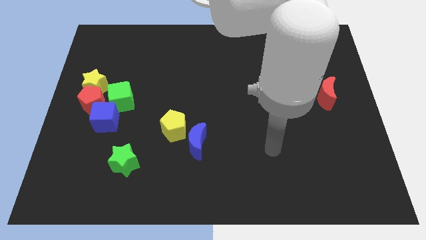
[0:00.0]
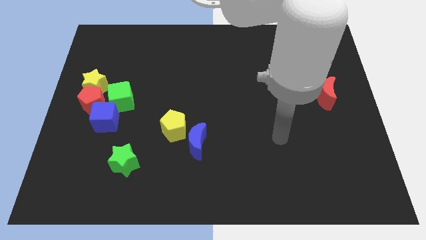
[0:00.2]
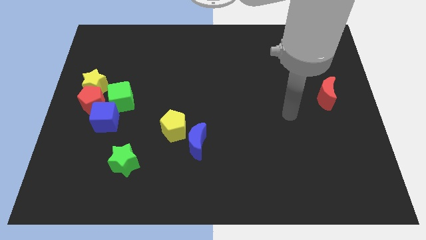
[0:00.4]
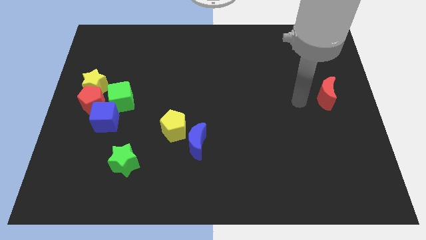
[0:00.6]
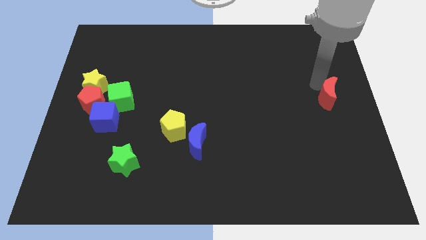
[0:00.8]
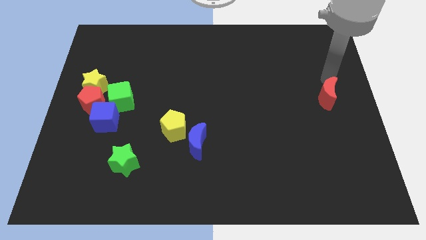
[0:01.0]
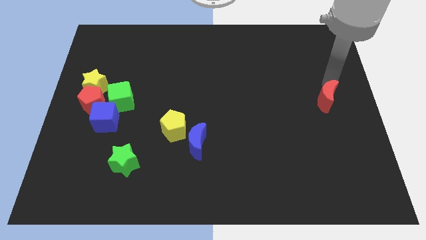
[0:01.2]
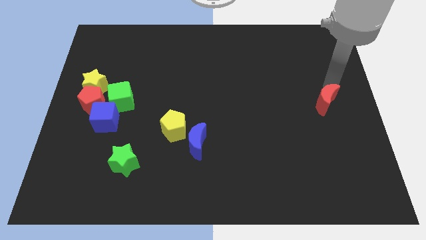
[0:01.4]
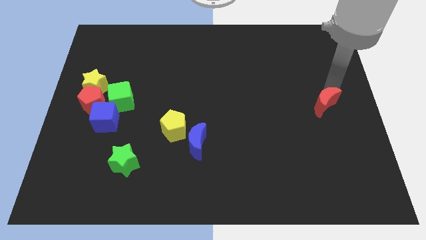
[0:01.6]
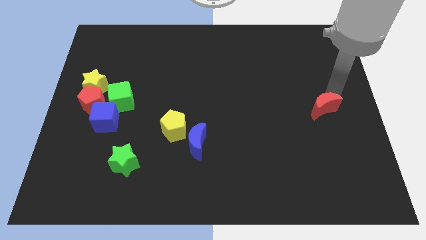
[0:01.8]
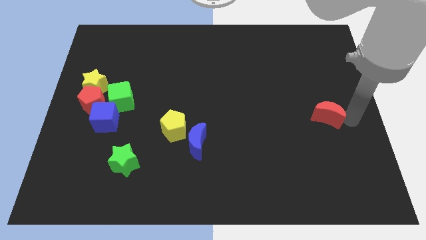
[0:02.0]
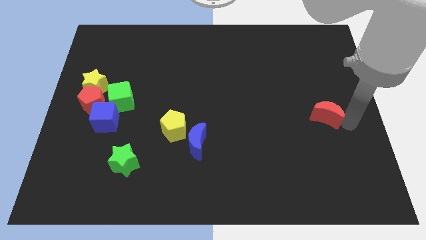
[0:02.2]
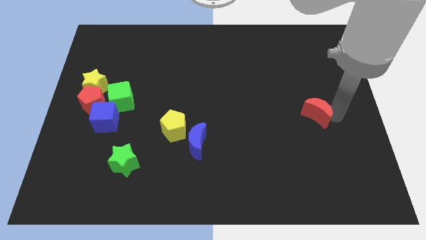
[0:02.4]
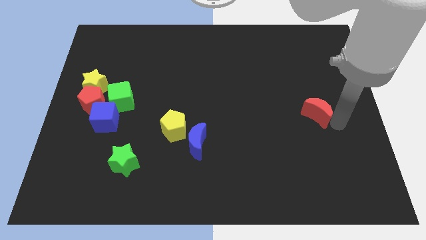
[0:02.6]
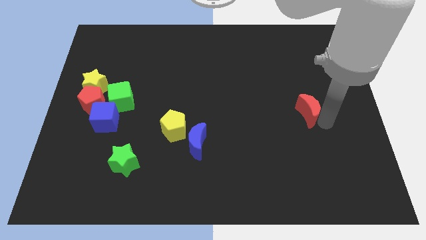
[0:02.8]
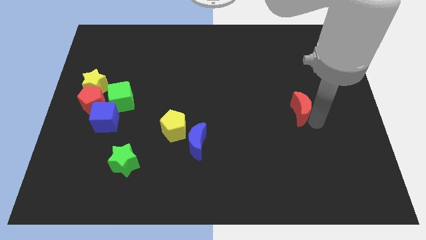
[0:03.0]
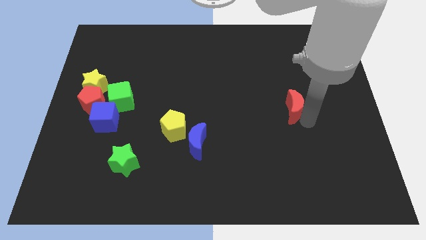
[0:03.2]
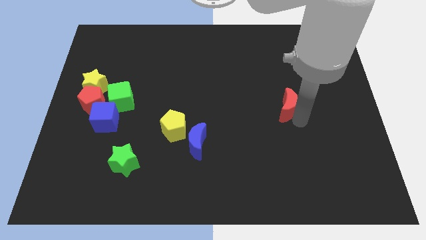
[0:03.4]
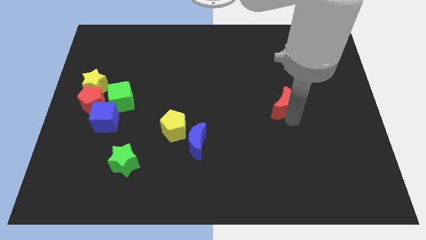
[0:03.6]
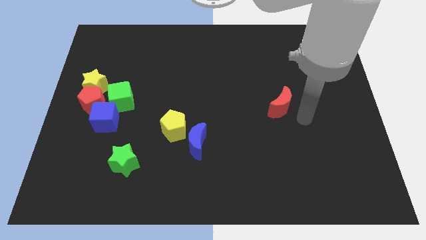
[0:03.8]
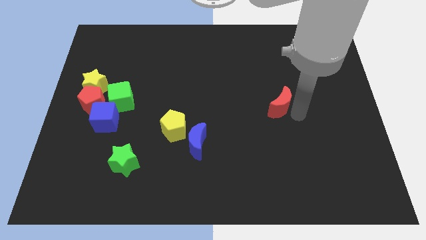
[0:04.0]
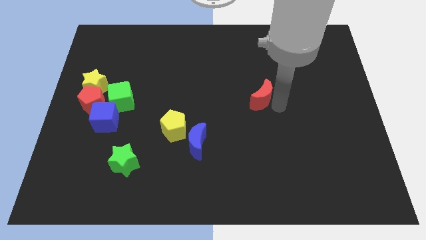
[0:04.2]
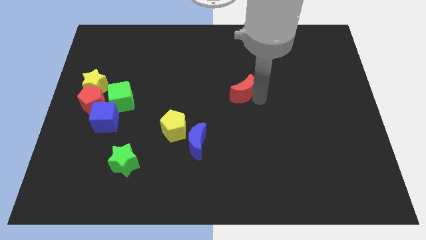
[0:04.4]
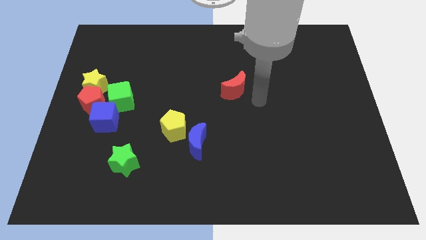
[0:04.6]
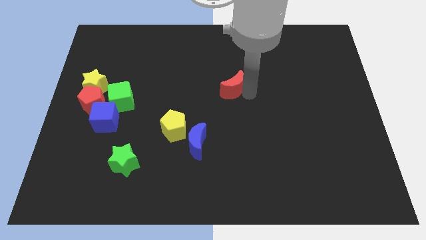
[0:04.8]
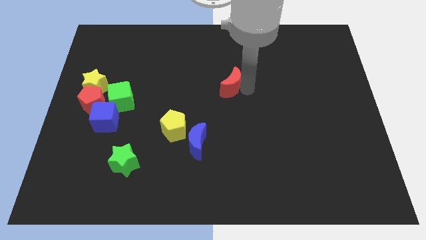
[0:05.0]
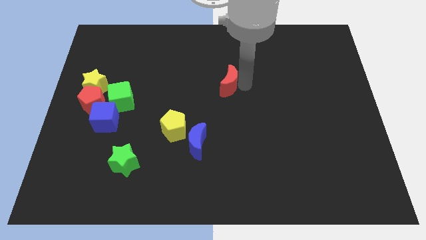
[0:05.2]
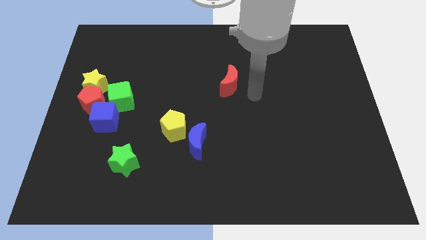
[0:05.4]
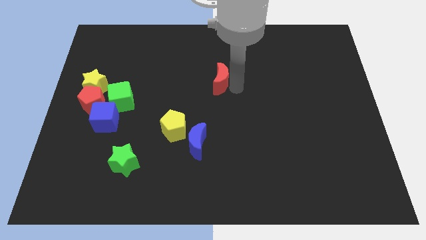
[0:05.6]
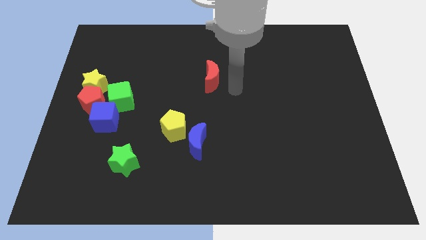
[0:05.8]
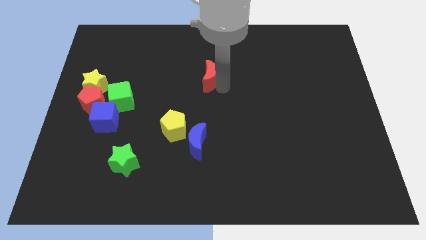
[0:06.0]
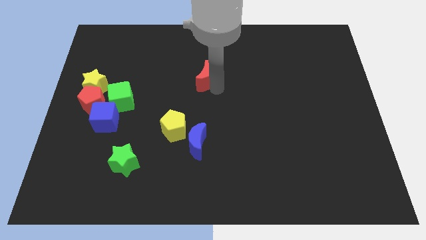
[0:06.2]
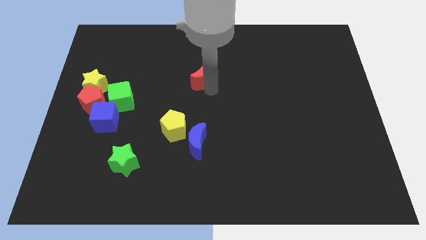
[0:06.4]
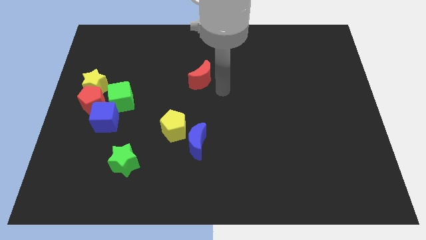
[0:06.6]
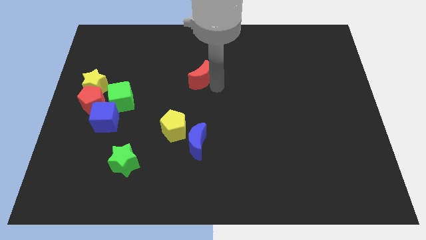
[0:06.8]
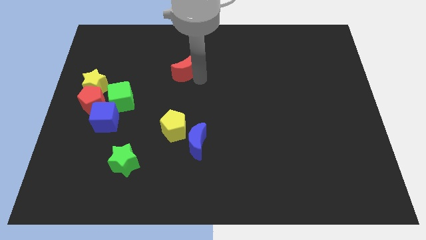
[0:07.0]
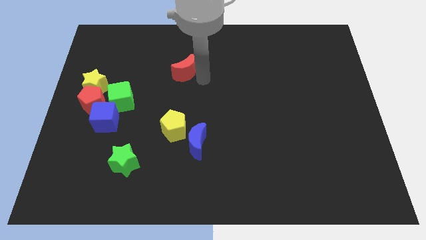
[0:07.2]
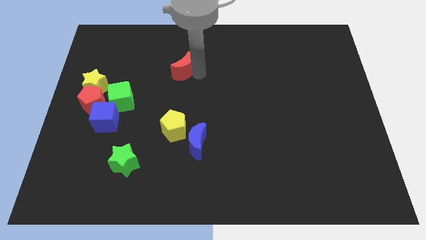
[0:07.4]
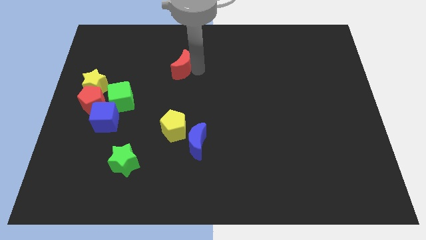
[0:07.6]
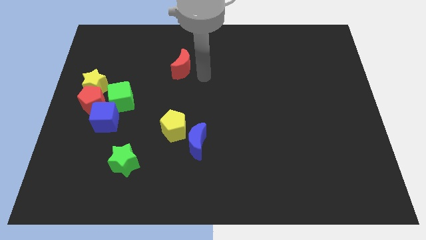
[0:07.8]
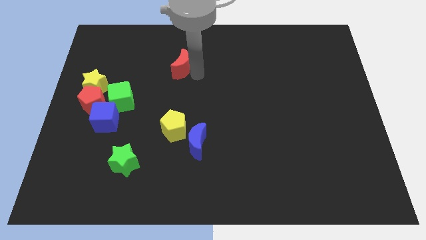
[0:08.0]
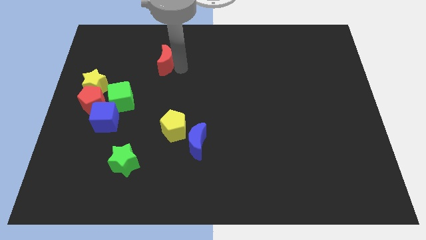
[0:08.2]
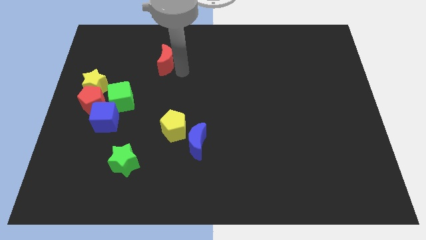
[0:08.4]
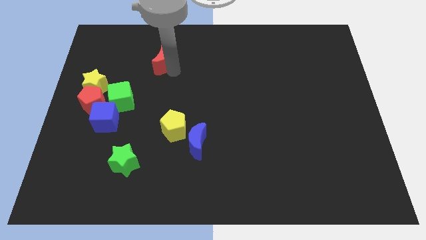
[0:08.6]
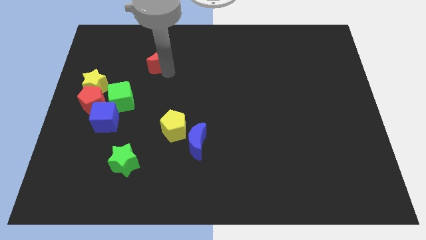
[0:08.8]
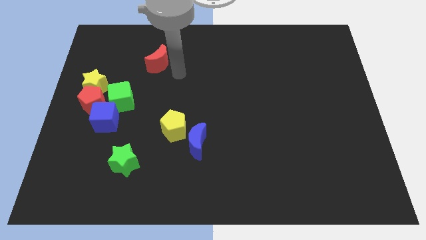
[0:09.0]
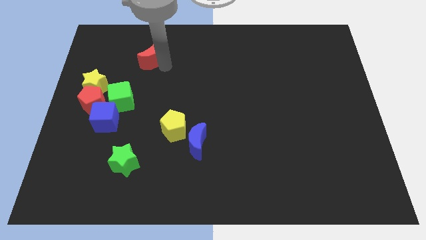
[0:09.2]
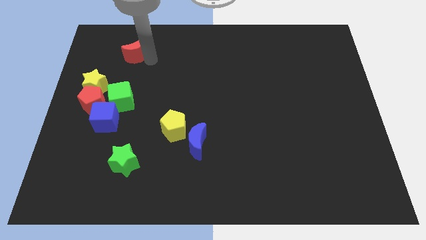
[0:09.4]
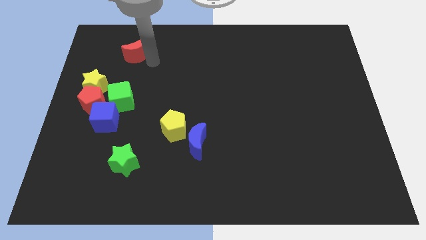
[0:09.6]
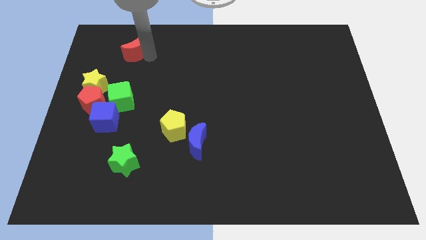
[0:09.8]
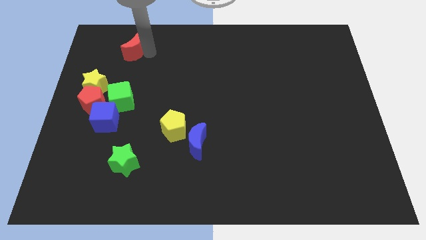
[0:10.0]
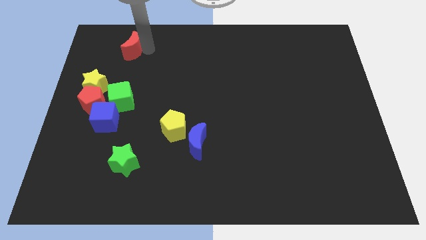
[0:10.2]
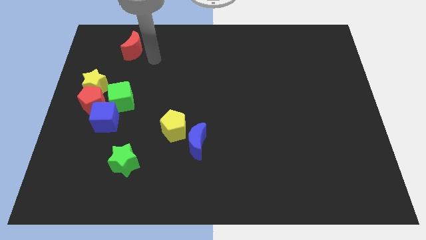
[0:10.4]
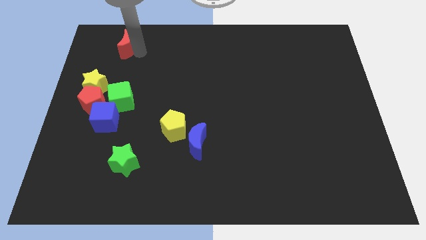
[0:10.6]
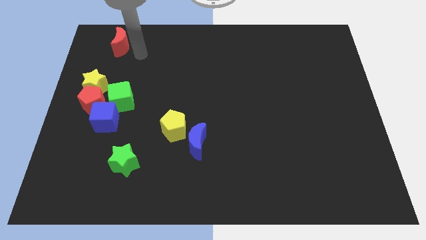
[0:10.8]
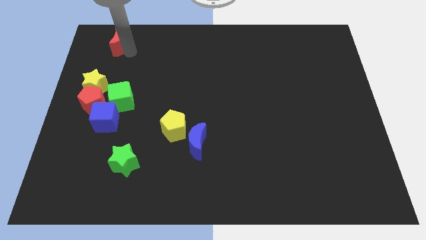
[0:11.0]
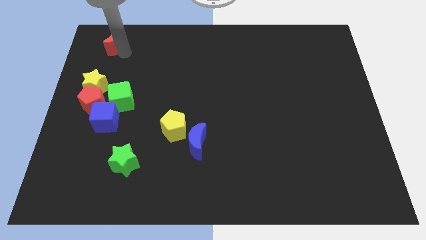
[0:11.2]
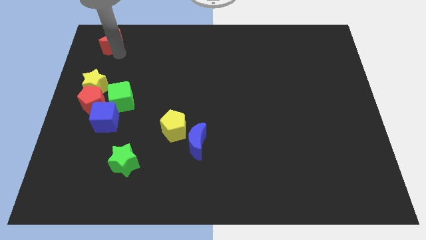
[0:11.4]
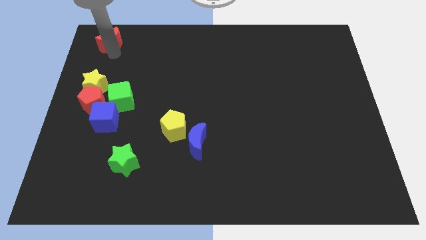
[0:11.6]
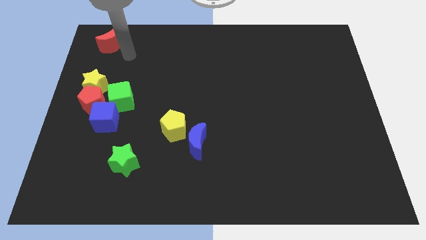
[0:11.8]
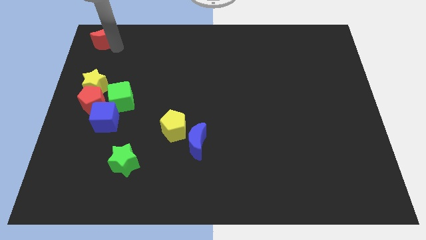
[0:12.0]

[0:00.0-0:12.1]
push the red moon to the top left
